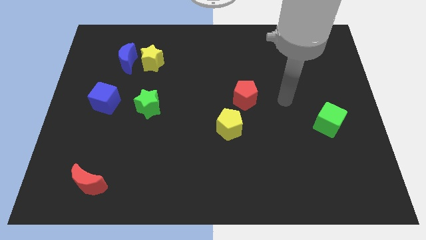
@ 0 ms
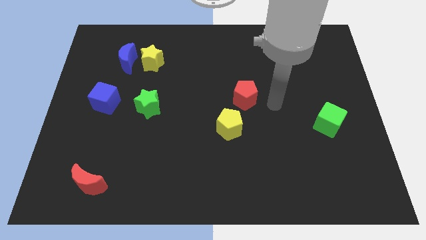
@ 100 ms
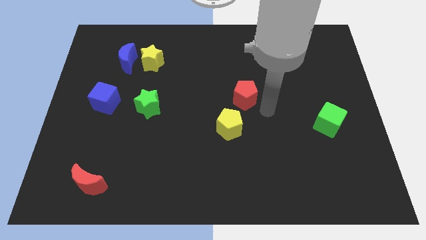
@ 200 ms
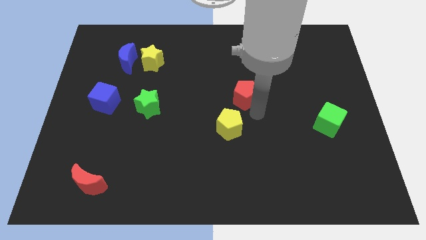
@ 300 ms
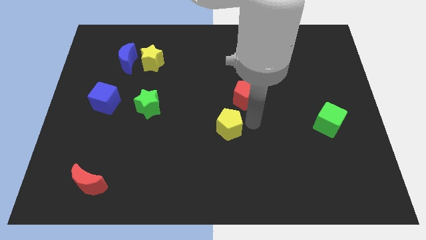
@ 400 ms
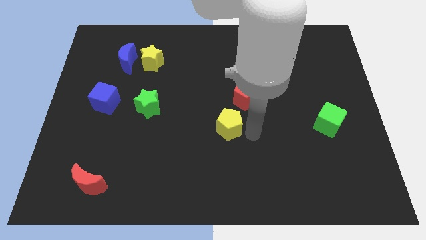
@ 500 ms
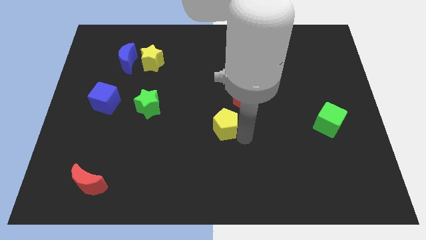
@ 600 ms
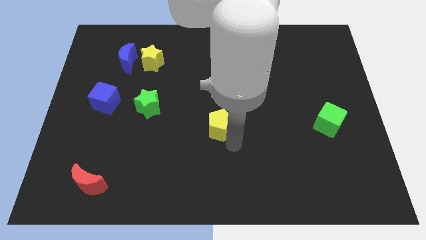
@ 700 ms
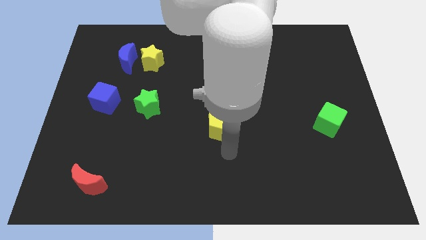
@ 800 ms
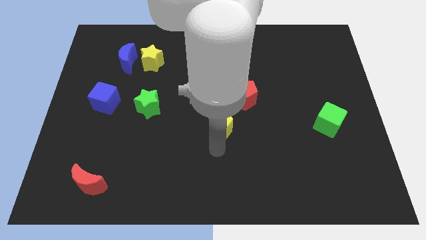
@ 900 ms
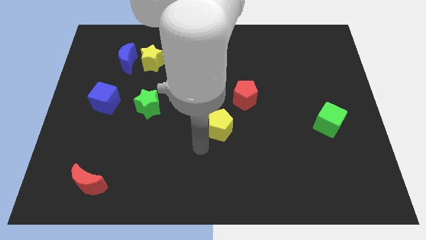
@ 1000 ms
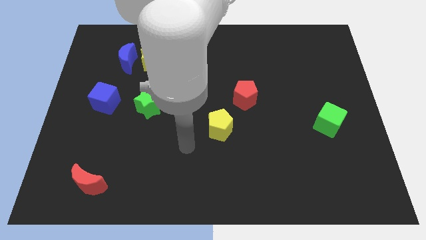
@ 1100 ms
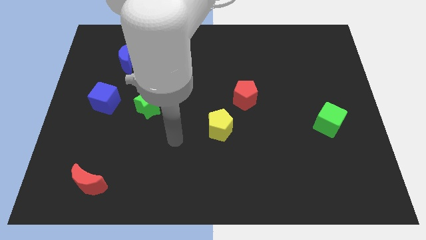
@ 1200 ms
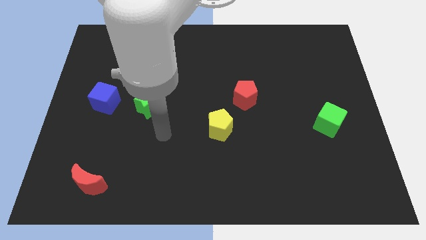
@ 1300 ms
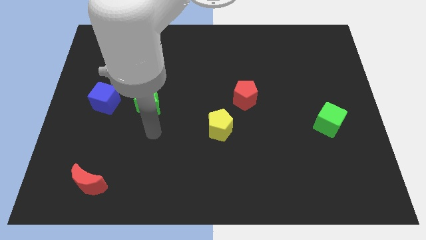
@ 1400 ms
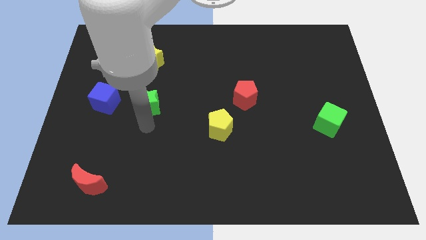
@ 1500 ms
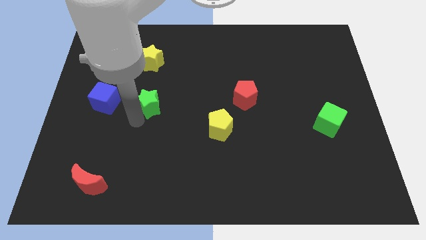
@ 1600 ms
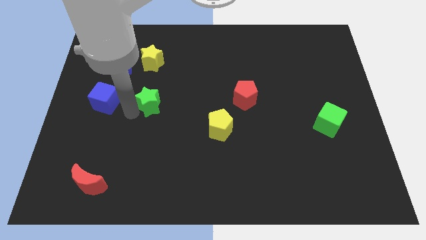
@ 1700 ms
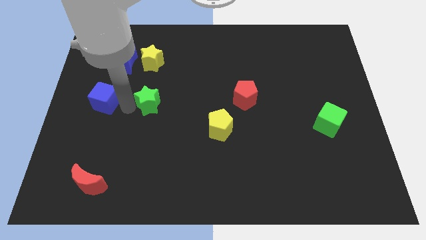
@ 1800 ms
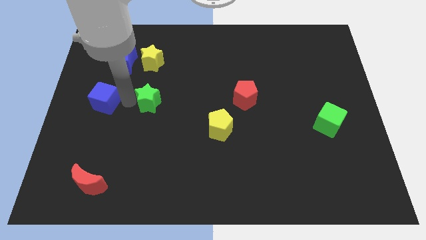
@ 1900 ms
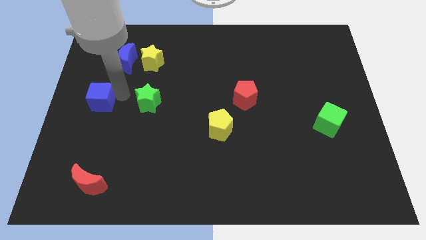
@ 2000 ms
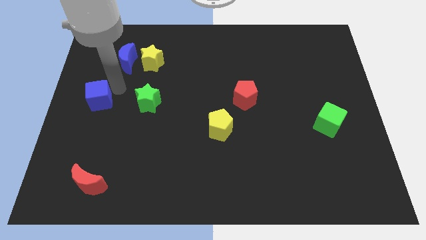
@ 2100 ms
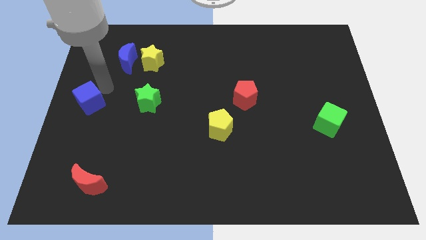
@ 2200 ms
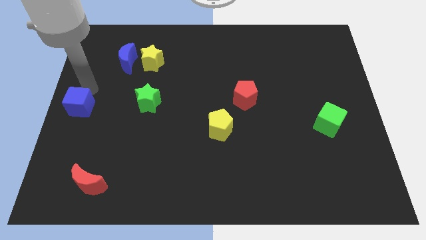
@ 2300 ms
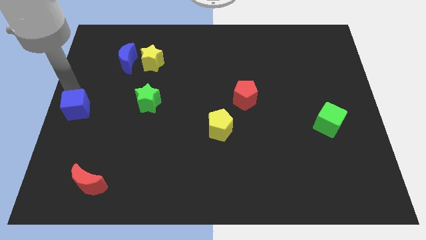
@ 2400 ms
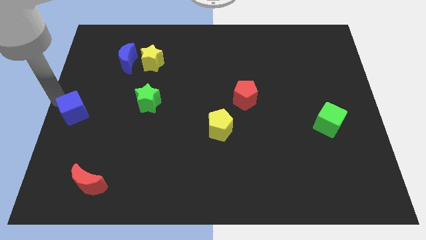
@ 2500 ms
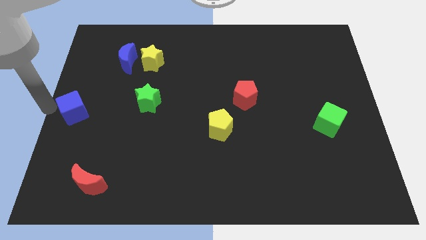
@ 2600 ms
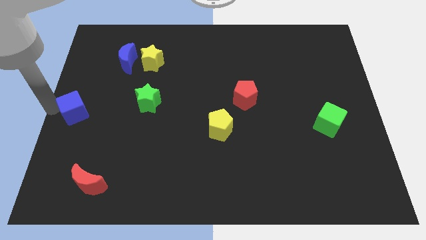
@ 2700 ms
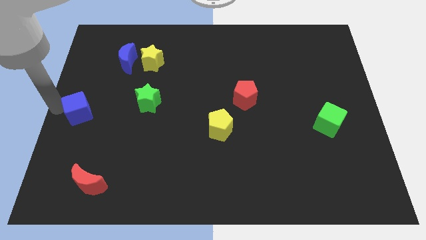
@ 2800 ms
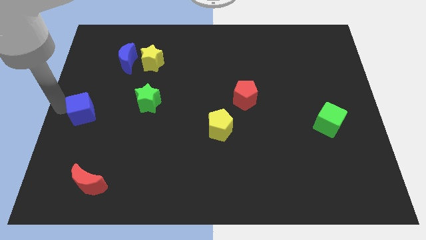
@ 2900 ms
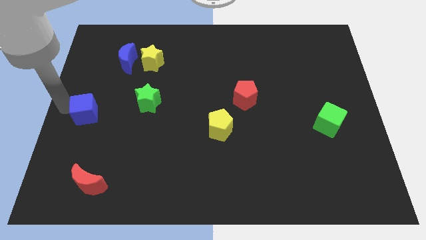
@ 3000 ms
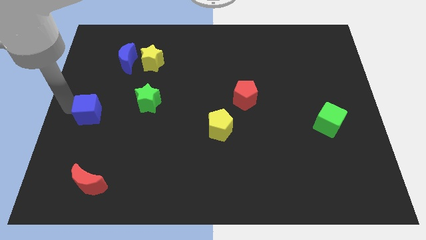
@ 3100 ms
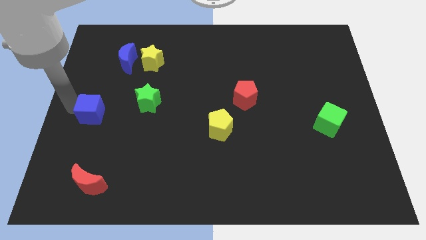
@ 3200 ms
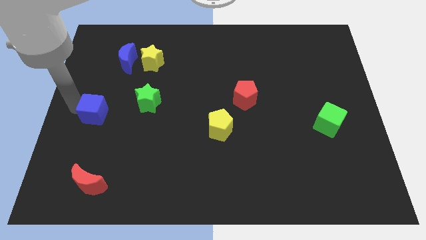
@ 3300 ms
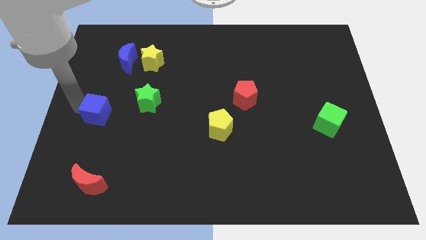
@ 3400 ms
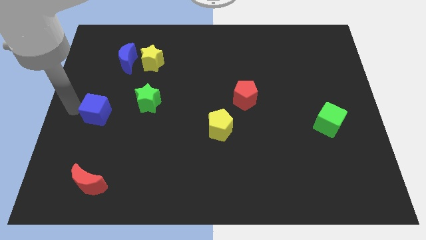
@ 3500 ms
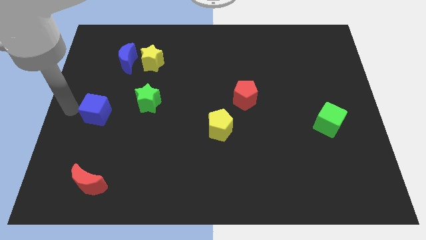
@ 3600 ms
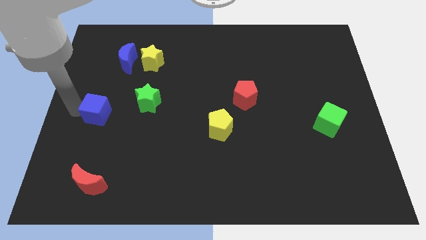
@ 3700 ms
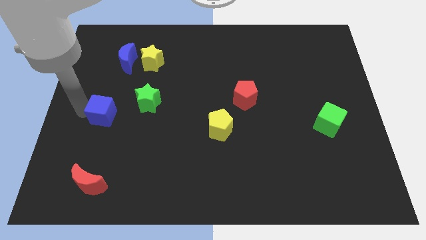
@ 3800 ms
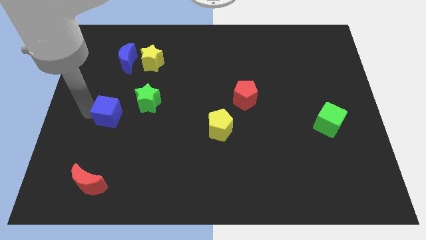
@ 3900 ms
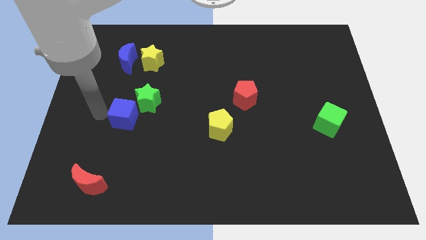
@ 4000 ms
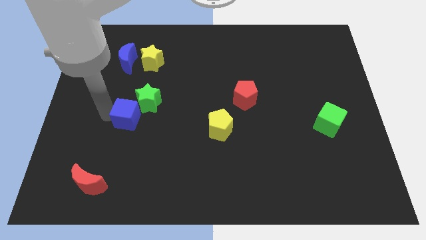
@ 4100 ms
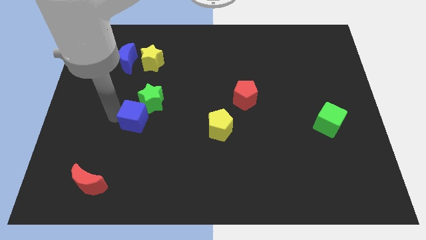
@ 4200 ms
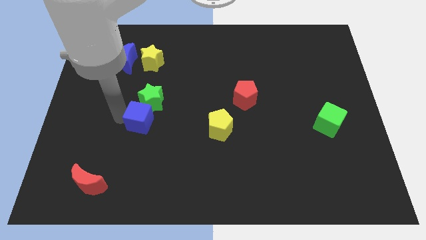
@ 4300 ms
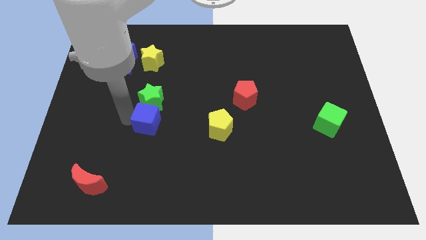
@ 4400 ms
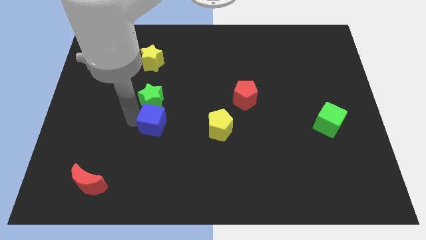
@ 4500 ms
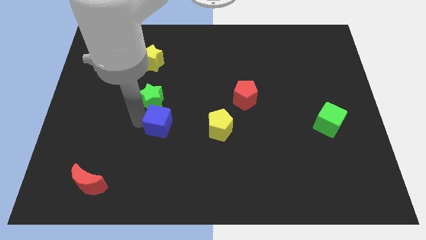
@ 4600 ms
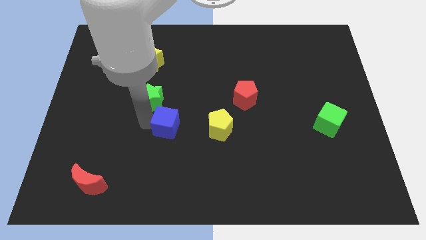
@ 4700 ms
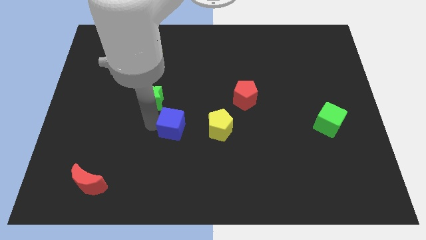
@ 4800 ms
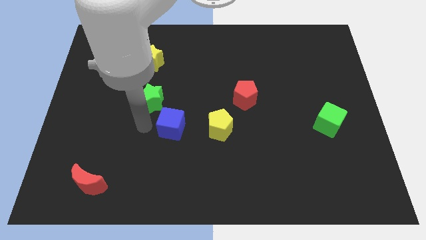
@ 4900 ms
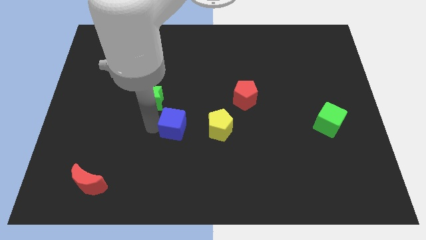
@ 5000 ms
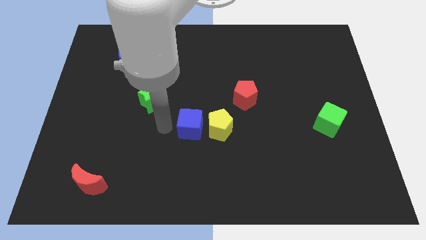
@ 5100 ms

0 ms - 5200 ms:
put the blue cube to the yellow pentagon

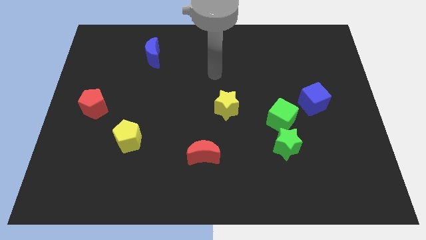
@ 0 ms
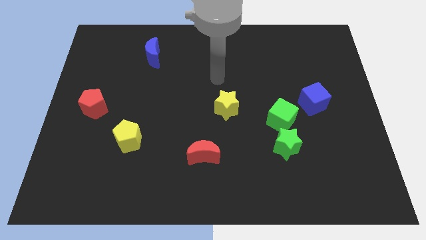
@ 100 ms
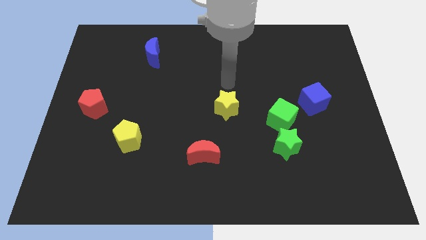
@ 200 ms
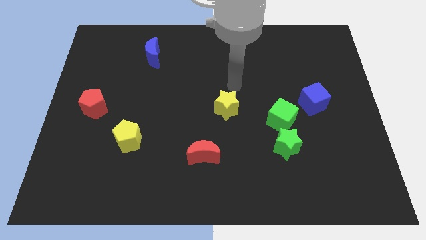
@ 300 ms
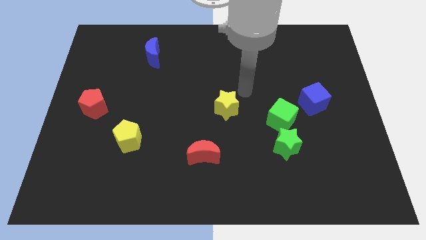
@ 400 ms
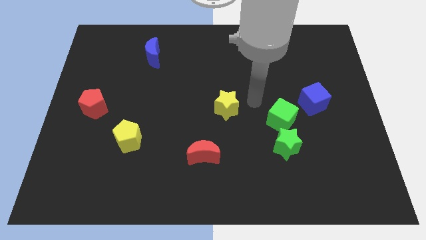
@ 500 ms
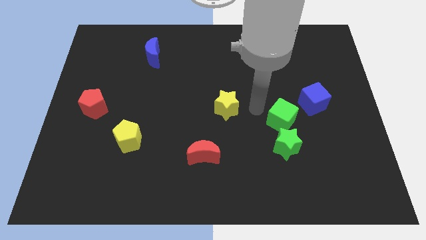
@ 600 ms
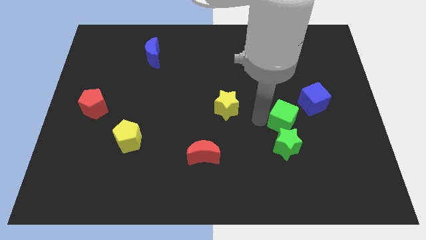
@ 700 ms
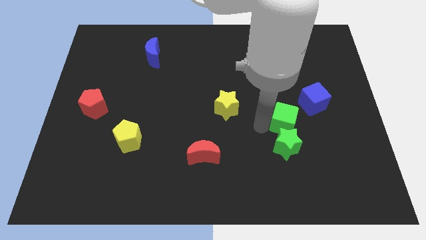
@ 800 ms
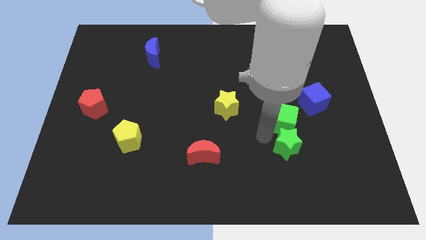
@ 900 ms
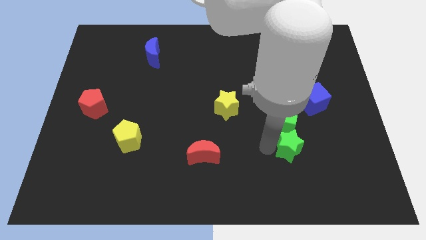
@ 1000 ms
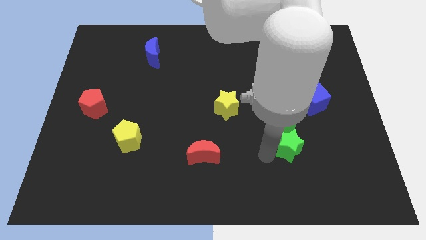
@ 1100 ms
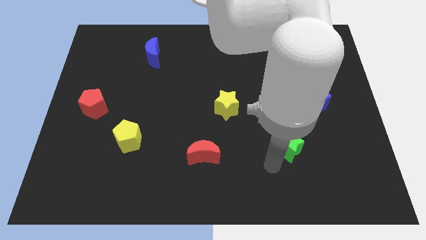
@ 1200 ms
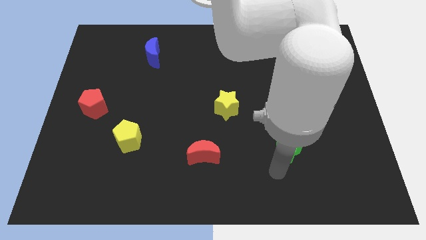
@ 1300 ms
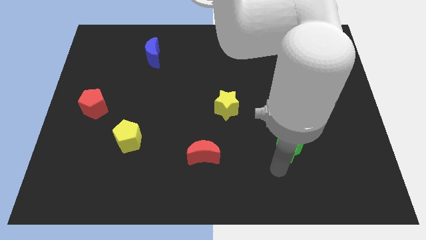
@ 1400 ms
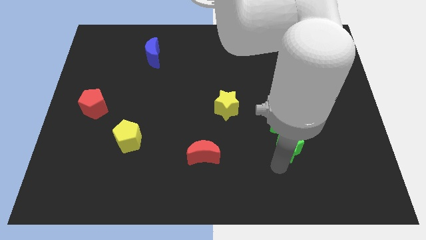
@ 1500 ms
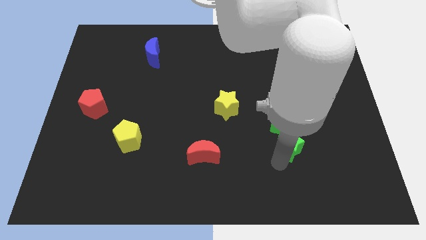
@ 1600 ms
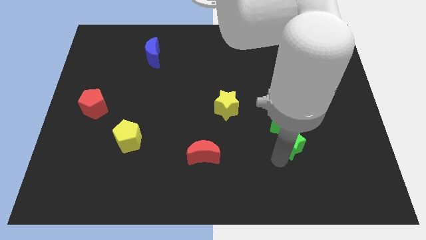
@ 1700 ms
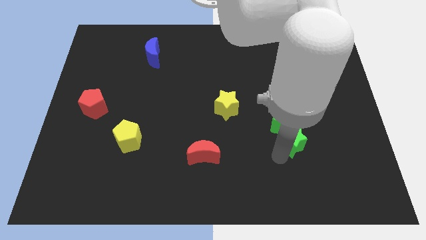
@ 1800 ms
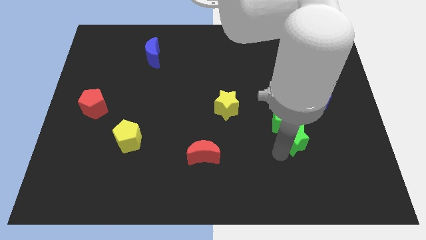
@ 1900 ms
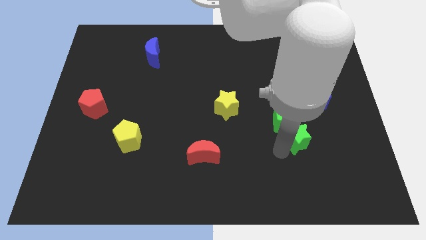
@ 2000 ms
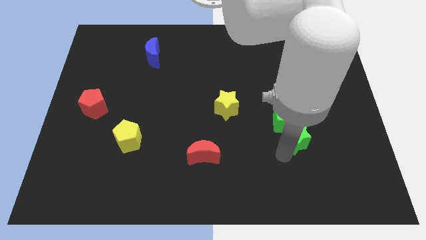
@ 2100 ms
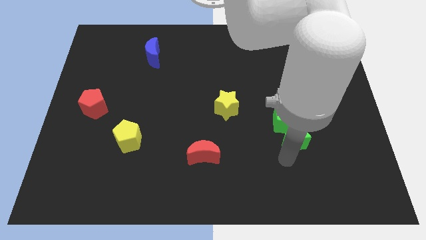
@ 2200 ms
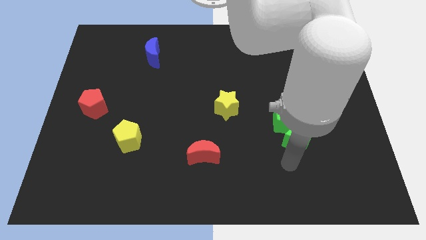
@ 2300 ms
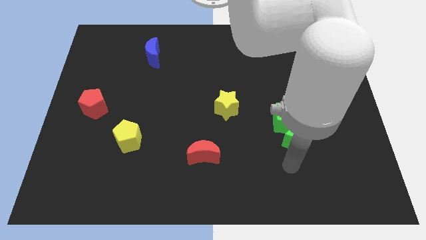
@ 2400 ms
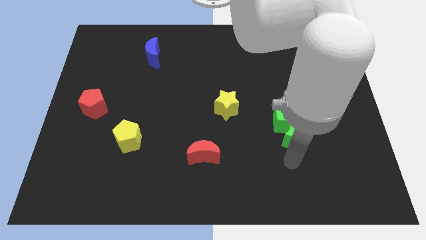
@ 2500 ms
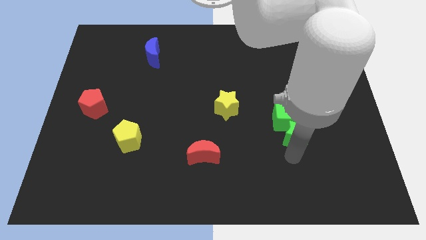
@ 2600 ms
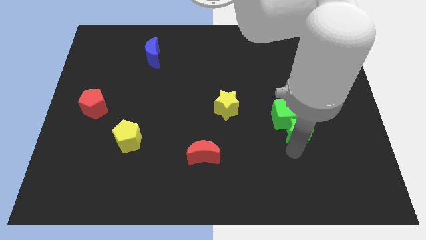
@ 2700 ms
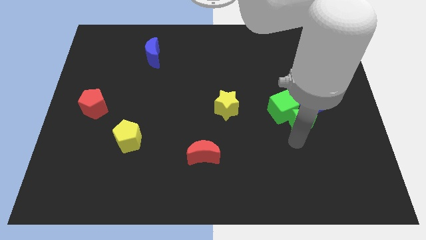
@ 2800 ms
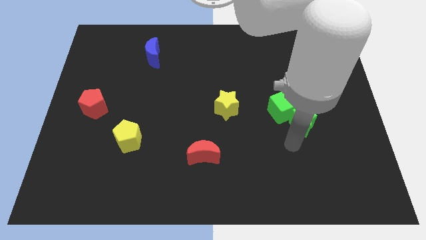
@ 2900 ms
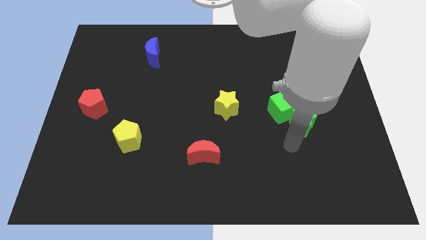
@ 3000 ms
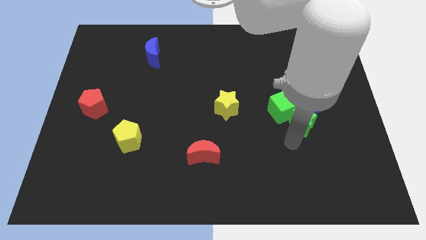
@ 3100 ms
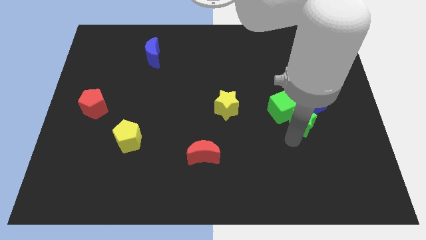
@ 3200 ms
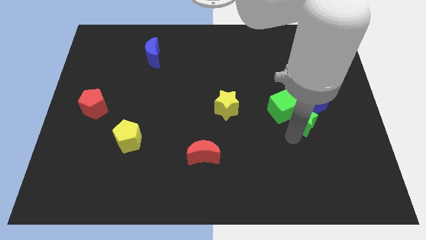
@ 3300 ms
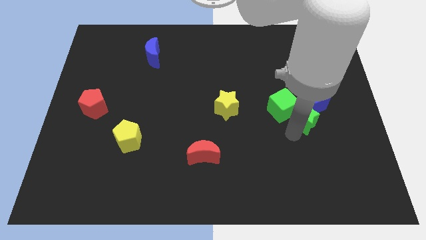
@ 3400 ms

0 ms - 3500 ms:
slide the green star close to the blue cube
